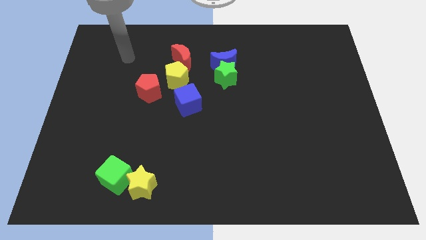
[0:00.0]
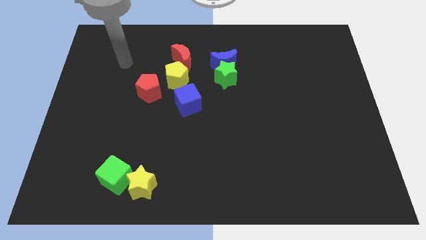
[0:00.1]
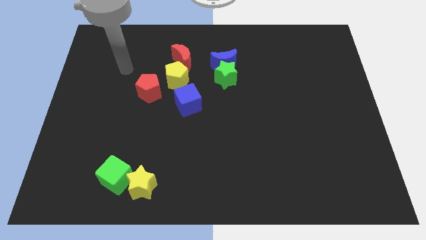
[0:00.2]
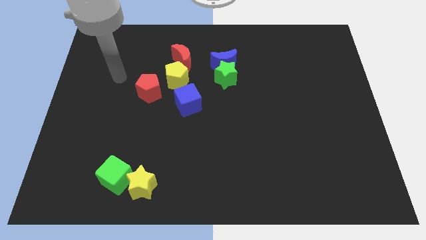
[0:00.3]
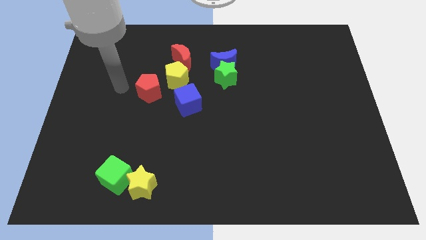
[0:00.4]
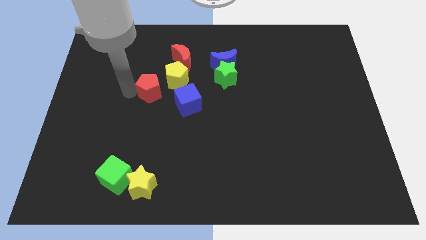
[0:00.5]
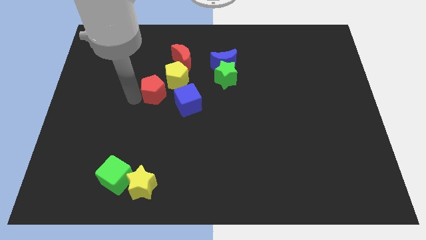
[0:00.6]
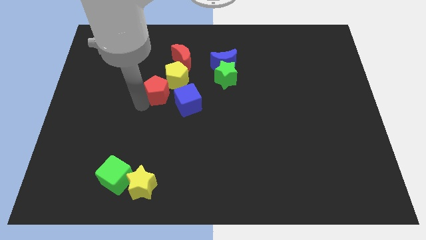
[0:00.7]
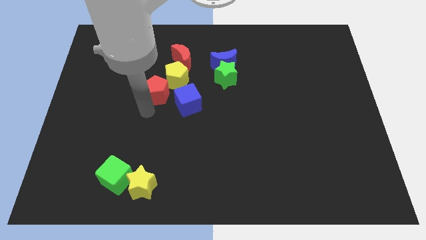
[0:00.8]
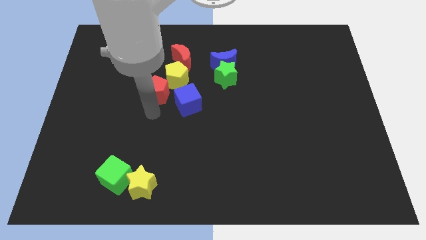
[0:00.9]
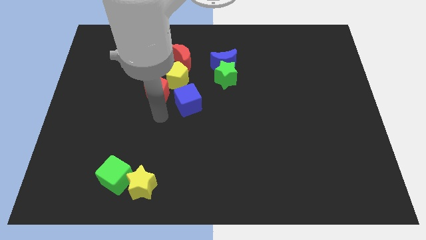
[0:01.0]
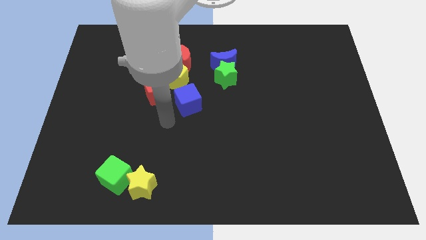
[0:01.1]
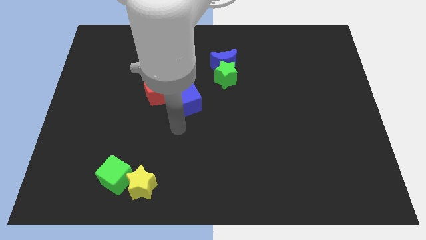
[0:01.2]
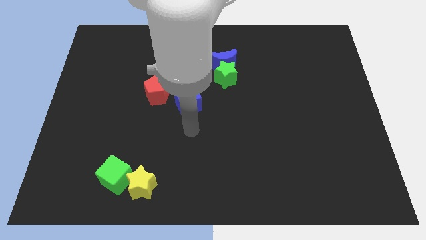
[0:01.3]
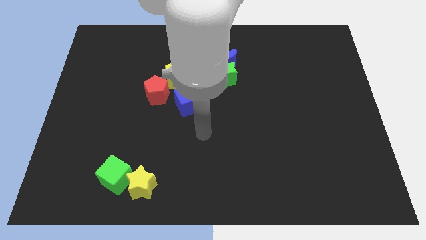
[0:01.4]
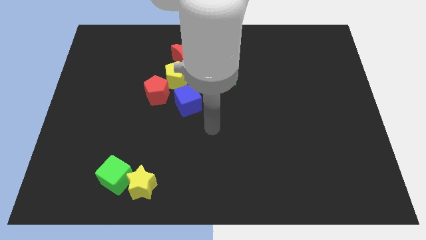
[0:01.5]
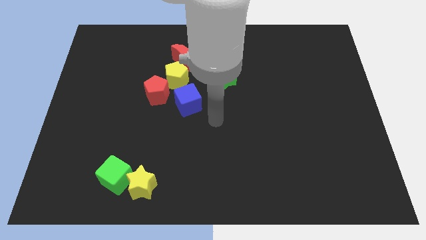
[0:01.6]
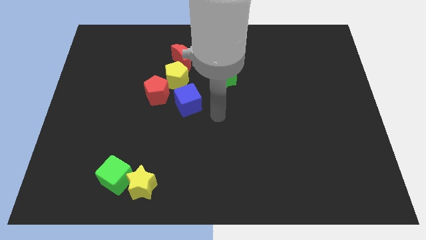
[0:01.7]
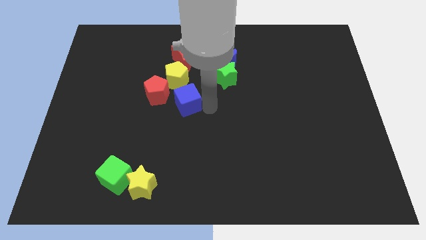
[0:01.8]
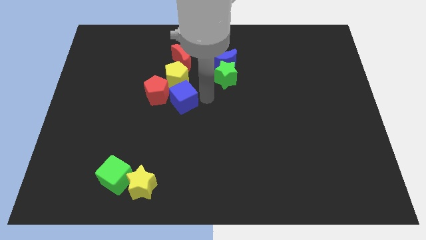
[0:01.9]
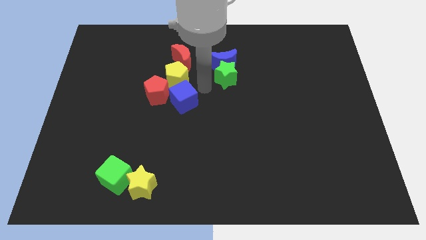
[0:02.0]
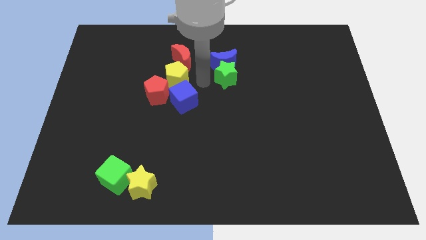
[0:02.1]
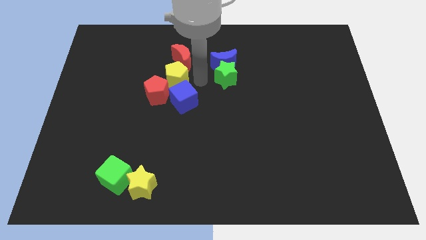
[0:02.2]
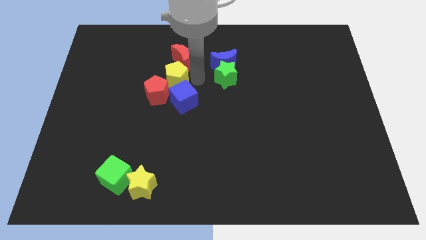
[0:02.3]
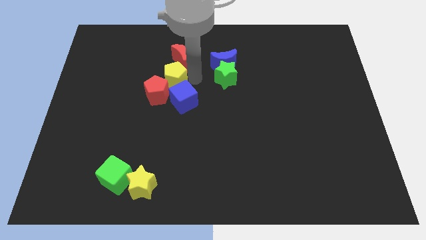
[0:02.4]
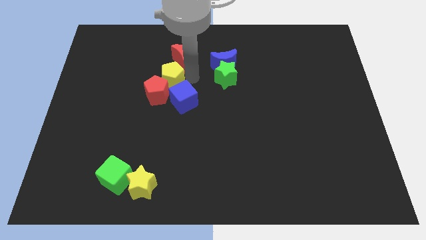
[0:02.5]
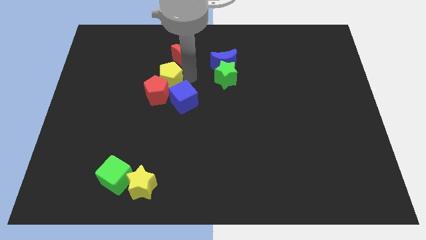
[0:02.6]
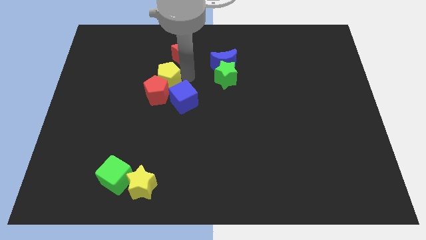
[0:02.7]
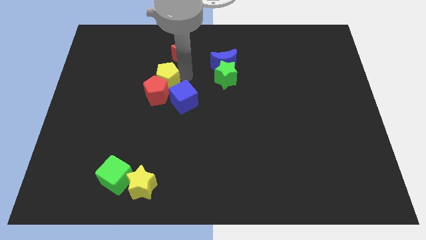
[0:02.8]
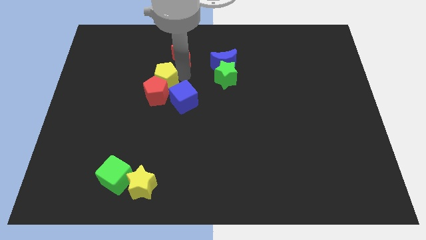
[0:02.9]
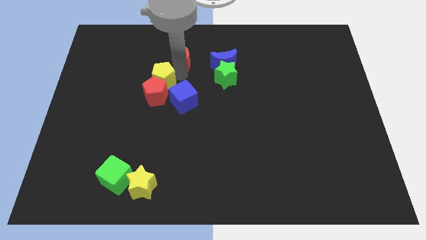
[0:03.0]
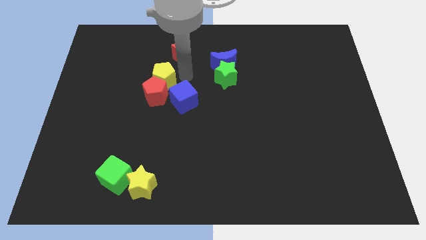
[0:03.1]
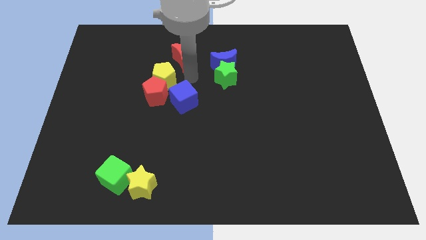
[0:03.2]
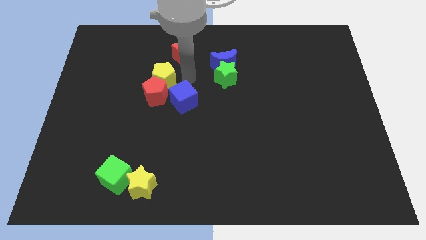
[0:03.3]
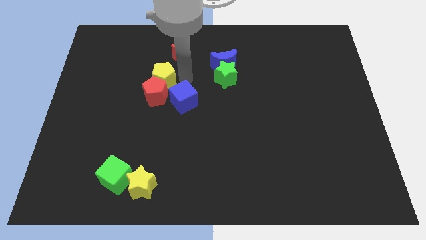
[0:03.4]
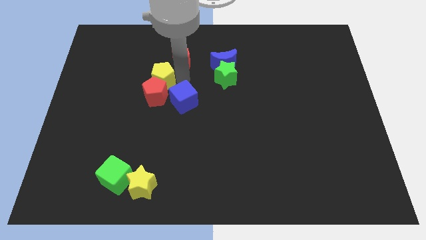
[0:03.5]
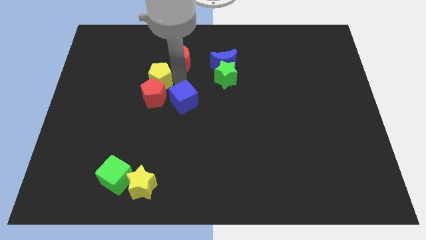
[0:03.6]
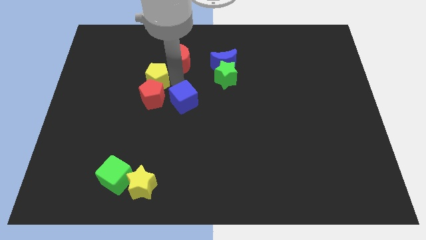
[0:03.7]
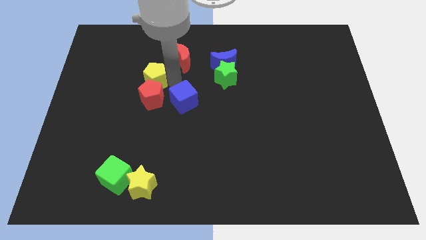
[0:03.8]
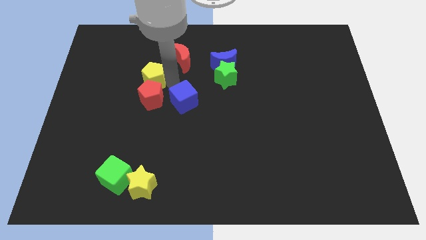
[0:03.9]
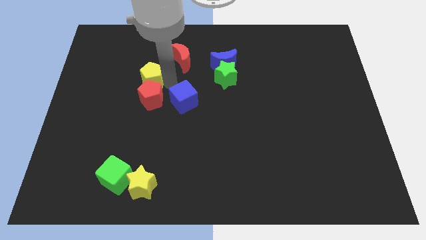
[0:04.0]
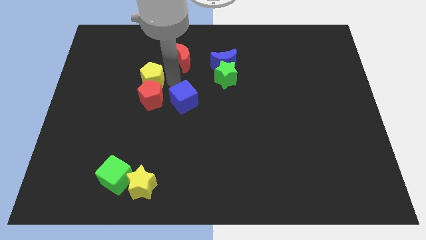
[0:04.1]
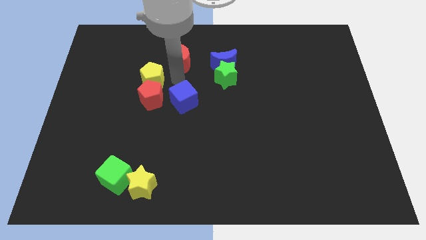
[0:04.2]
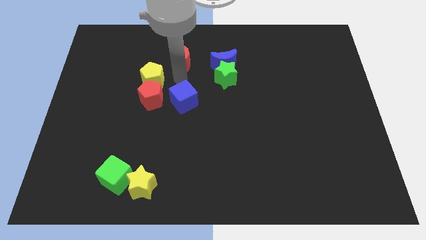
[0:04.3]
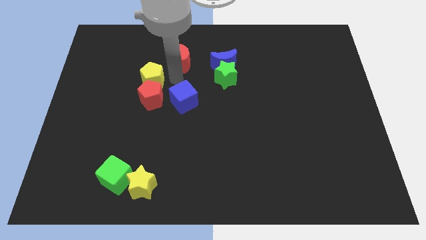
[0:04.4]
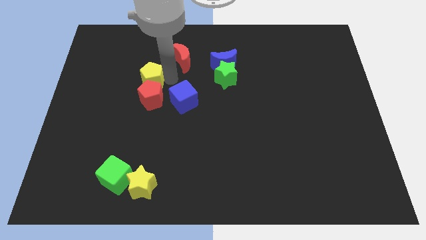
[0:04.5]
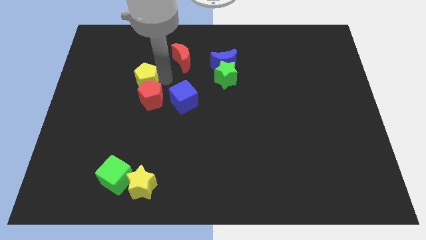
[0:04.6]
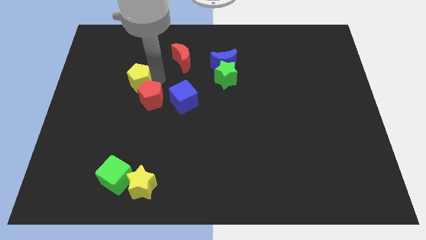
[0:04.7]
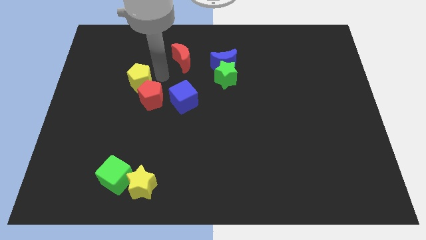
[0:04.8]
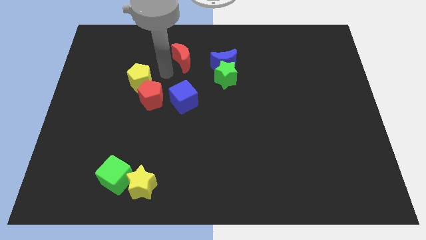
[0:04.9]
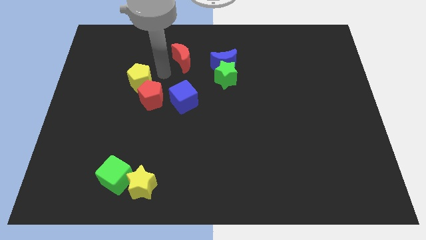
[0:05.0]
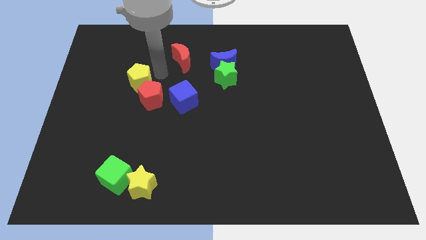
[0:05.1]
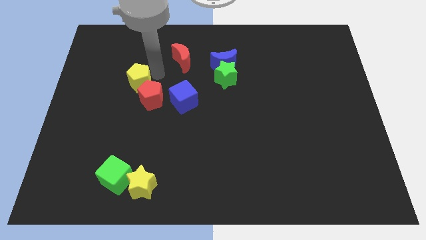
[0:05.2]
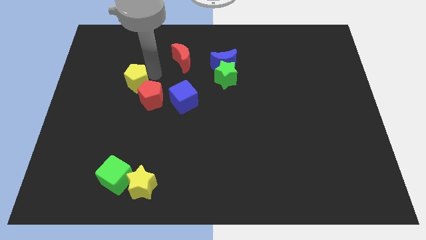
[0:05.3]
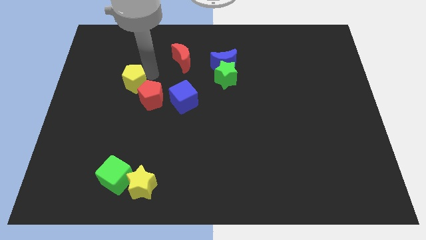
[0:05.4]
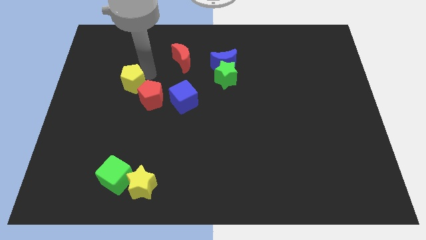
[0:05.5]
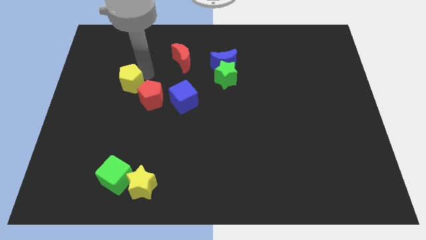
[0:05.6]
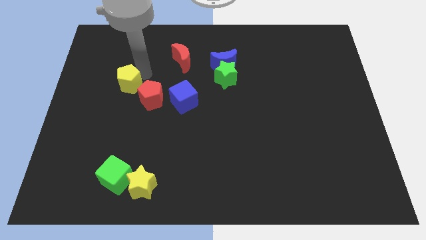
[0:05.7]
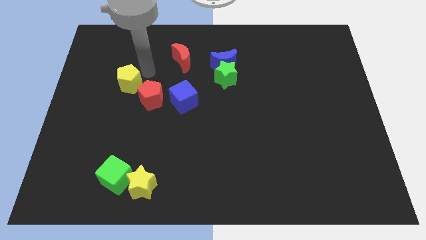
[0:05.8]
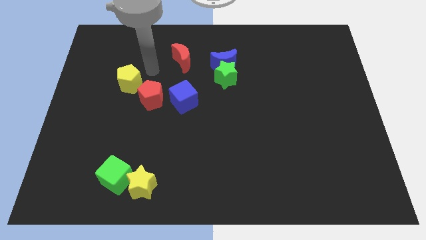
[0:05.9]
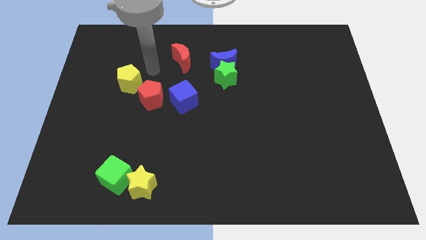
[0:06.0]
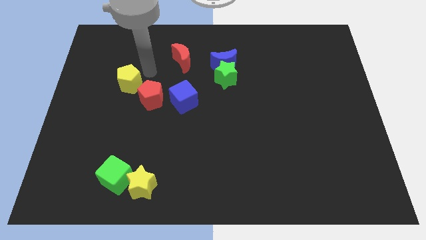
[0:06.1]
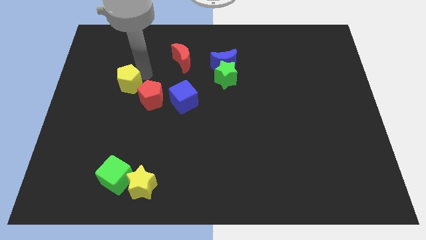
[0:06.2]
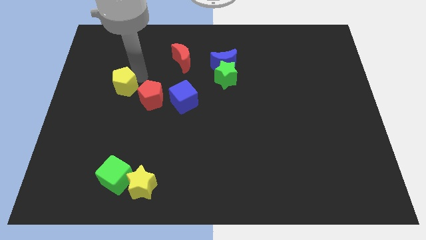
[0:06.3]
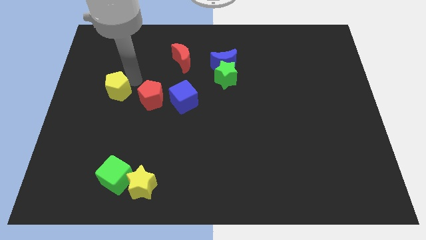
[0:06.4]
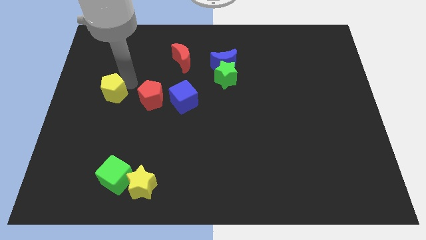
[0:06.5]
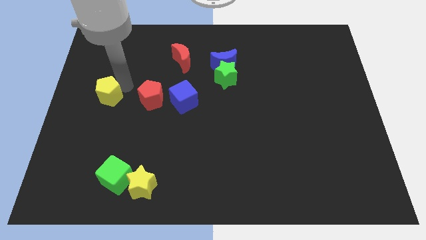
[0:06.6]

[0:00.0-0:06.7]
slide the yellow pentagon to the center left
